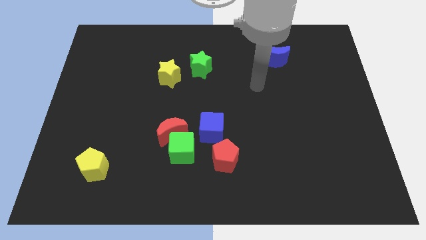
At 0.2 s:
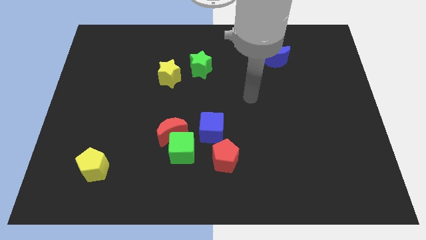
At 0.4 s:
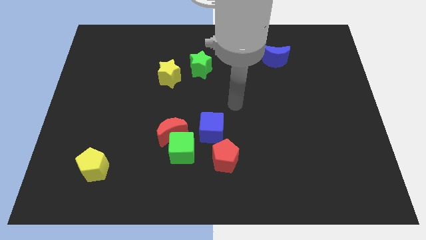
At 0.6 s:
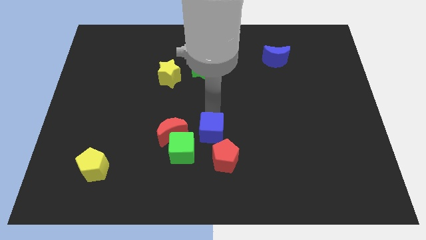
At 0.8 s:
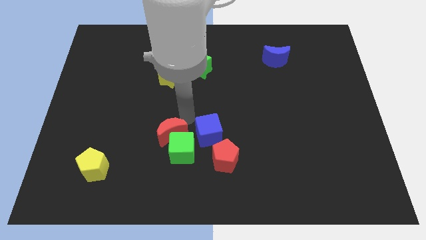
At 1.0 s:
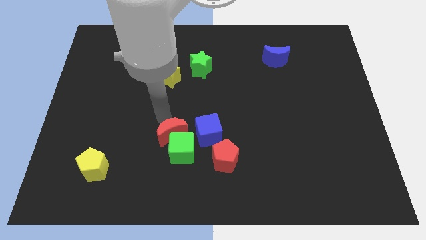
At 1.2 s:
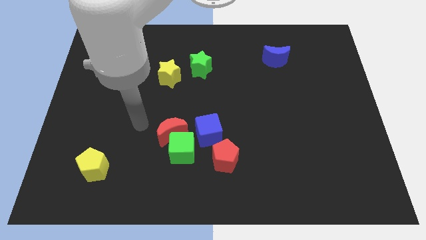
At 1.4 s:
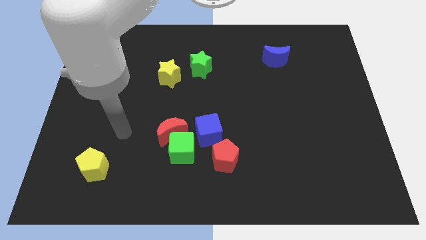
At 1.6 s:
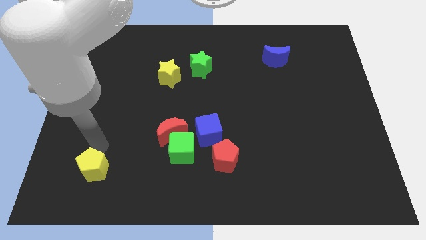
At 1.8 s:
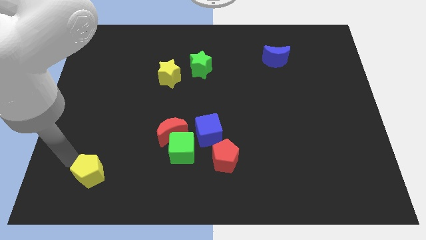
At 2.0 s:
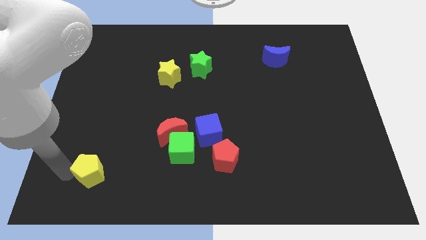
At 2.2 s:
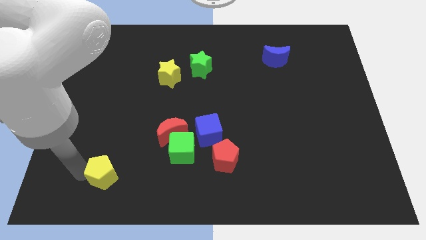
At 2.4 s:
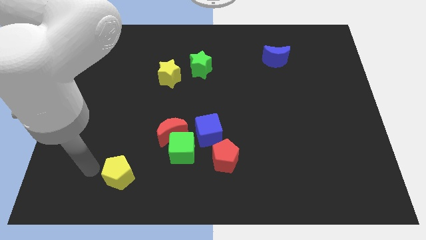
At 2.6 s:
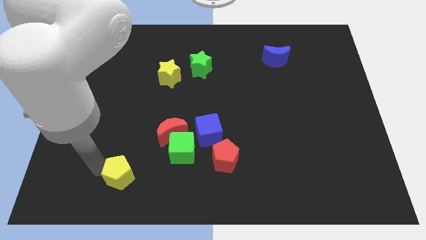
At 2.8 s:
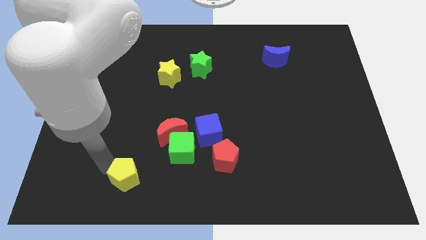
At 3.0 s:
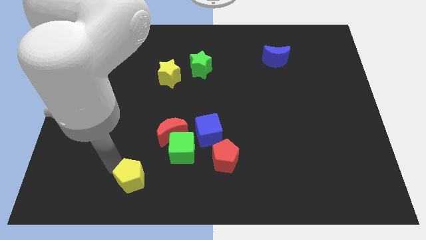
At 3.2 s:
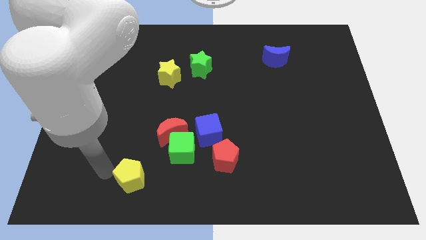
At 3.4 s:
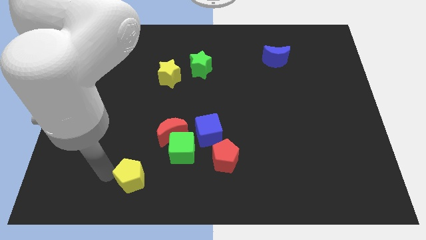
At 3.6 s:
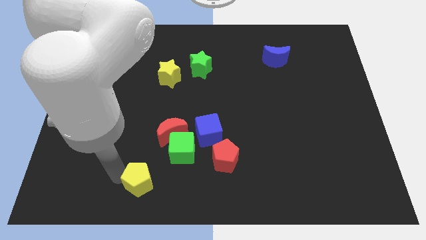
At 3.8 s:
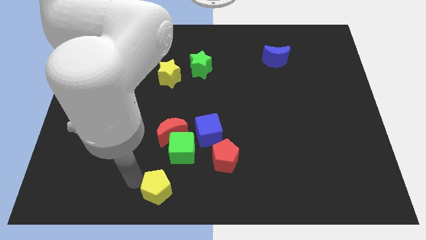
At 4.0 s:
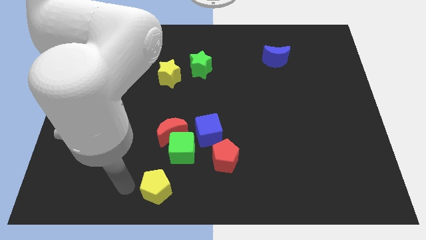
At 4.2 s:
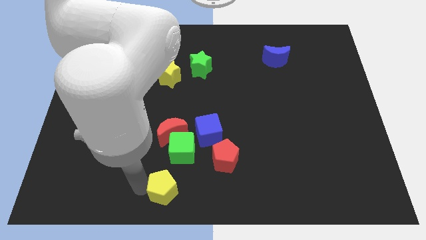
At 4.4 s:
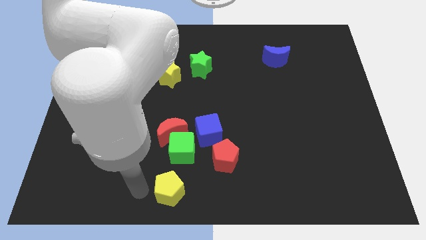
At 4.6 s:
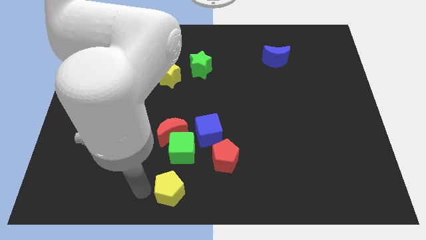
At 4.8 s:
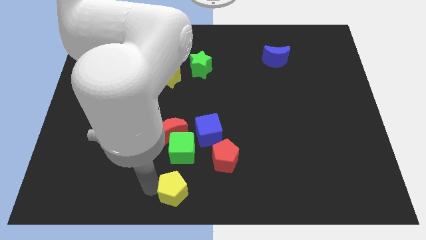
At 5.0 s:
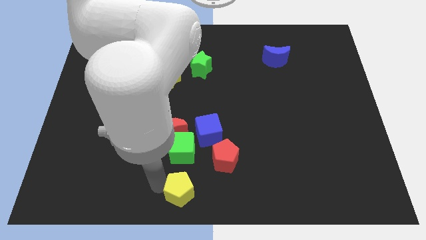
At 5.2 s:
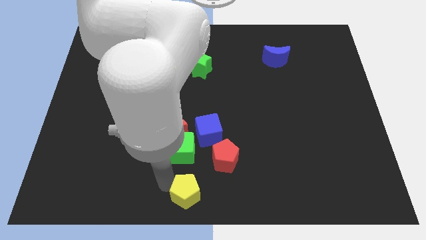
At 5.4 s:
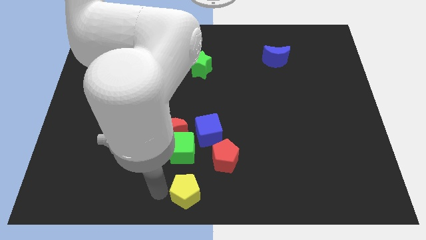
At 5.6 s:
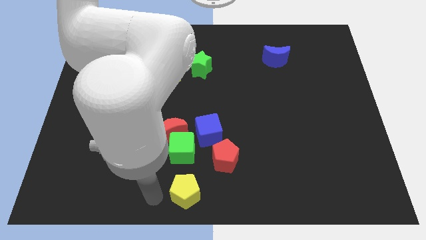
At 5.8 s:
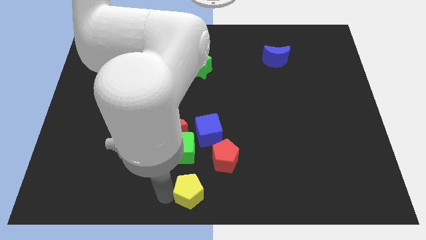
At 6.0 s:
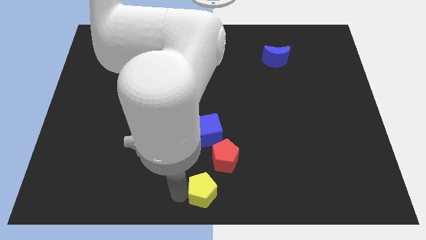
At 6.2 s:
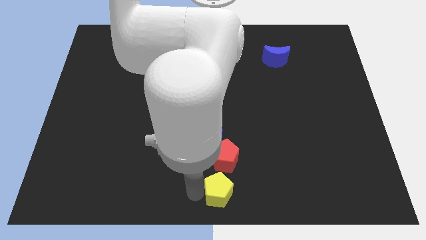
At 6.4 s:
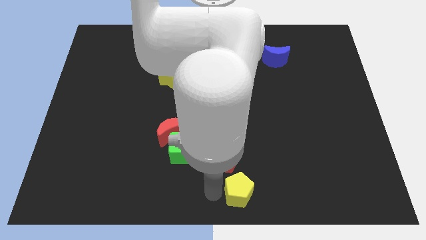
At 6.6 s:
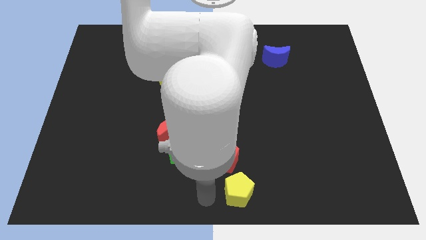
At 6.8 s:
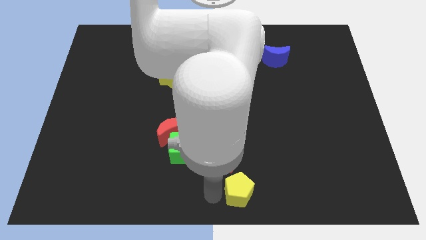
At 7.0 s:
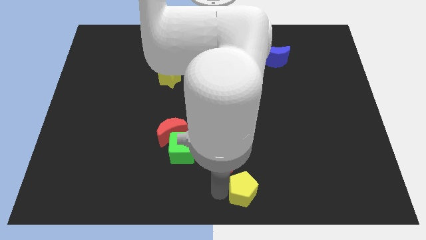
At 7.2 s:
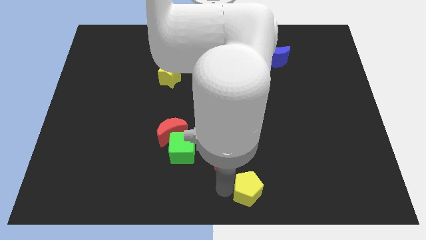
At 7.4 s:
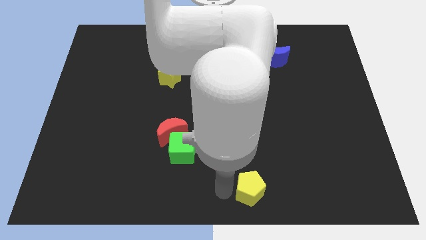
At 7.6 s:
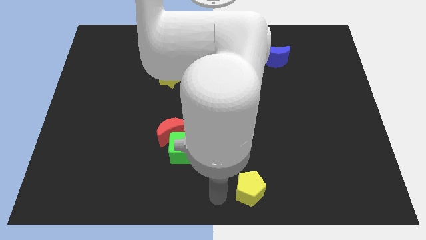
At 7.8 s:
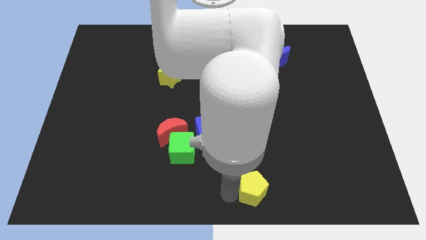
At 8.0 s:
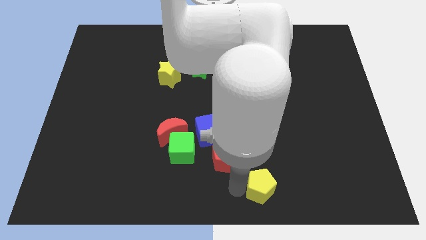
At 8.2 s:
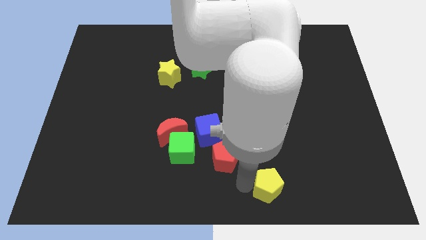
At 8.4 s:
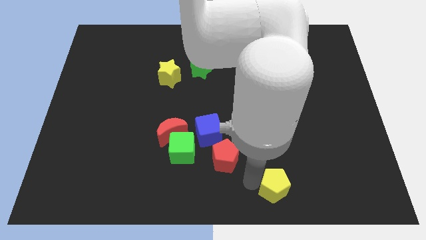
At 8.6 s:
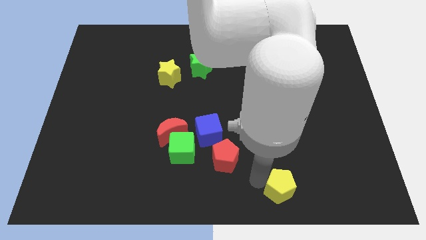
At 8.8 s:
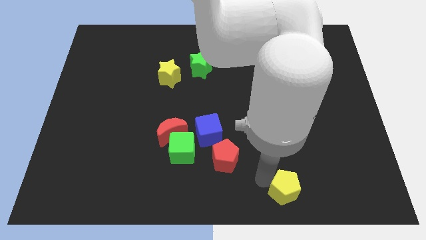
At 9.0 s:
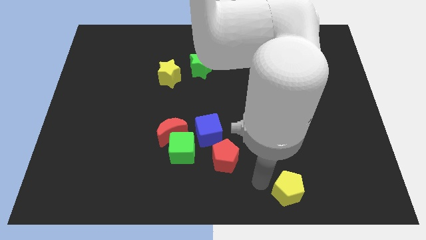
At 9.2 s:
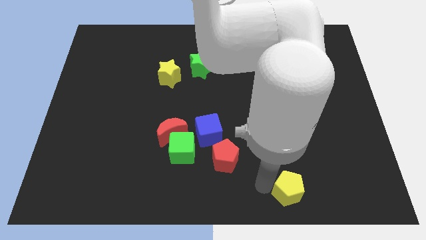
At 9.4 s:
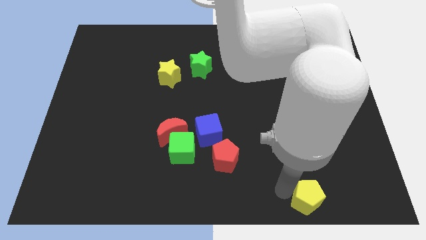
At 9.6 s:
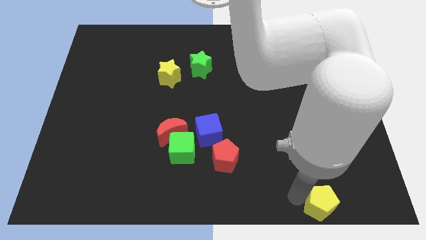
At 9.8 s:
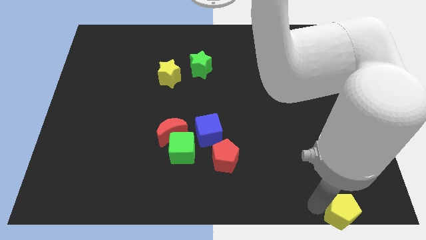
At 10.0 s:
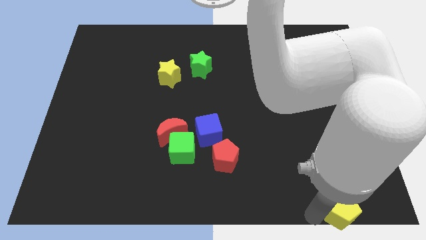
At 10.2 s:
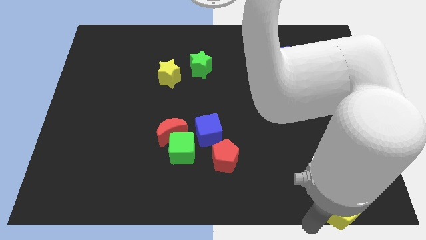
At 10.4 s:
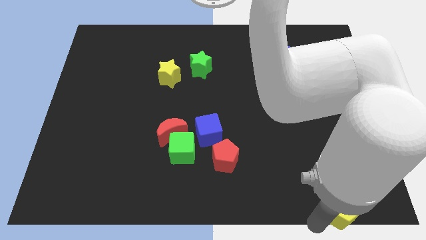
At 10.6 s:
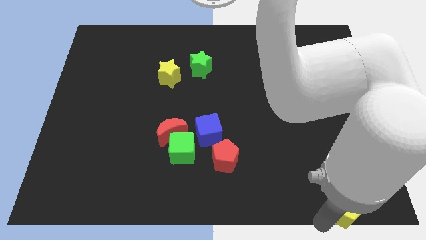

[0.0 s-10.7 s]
push the yellow pentagon to the lower right corner

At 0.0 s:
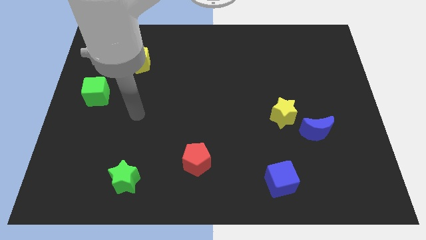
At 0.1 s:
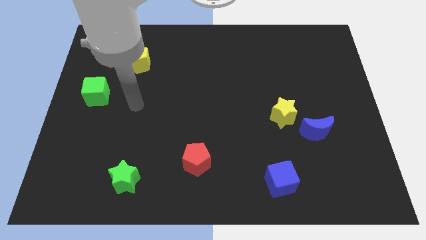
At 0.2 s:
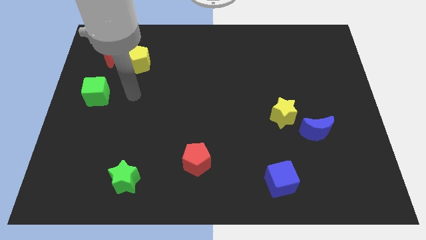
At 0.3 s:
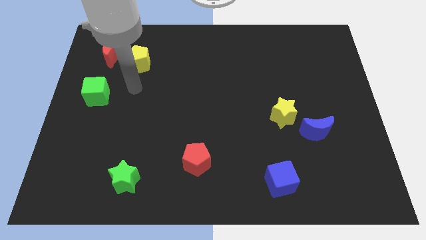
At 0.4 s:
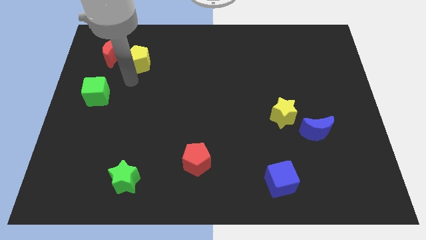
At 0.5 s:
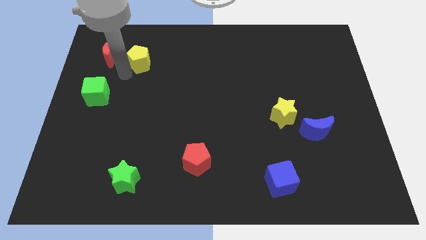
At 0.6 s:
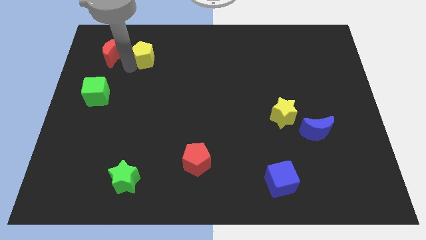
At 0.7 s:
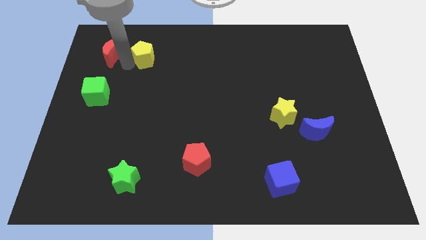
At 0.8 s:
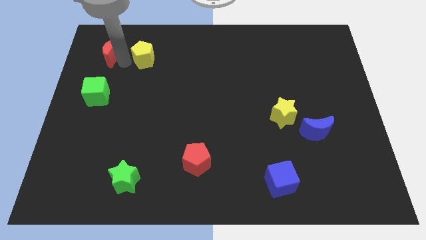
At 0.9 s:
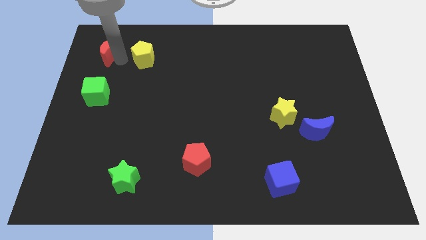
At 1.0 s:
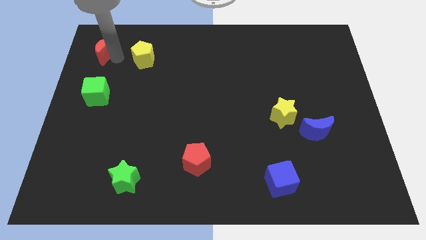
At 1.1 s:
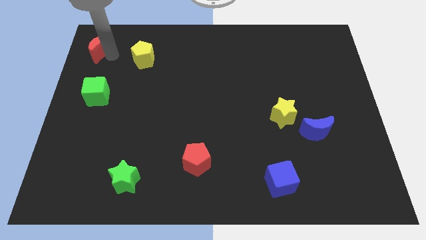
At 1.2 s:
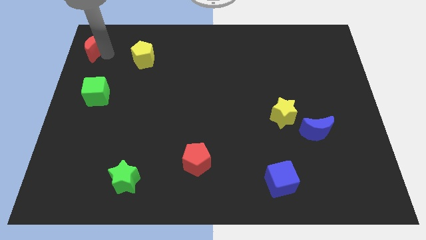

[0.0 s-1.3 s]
put the red moon to the upper left corner
